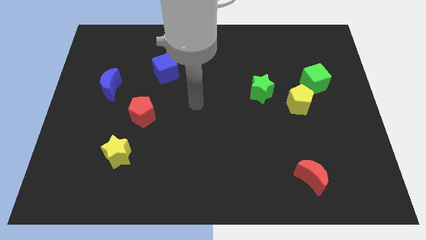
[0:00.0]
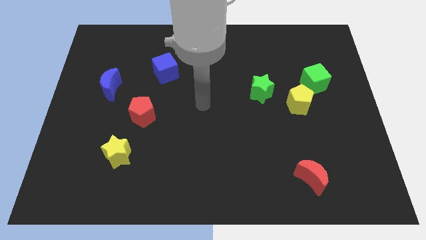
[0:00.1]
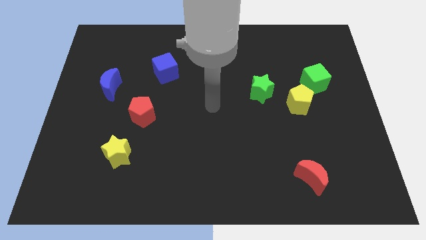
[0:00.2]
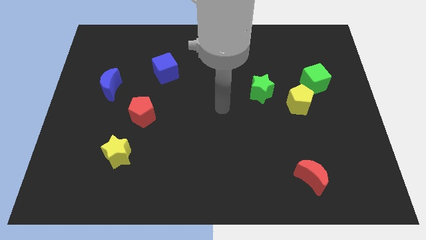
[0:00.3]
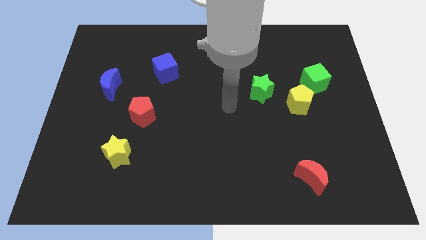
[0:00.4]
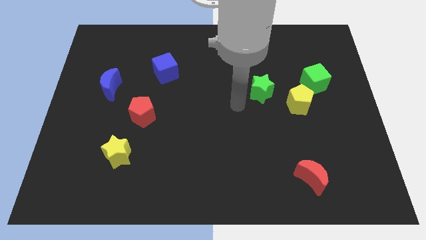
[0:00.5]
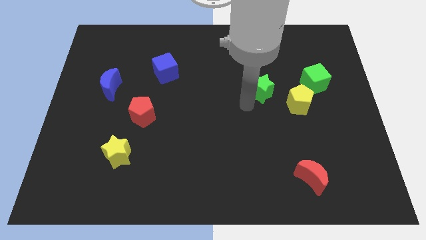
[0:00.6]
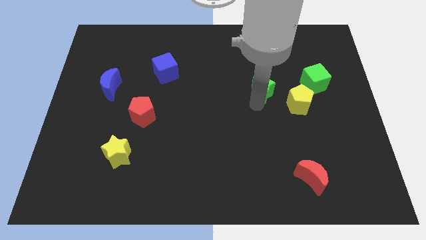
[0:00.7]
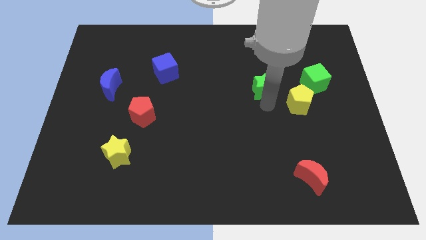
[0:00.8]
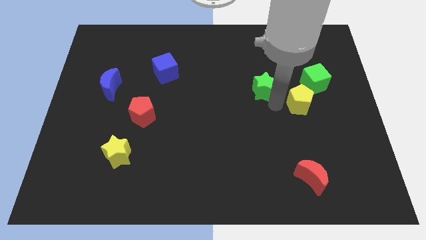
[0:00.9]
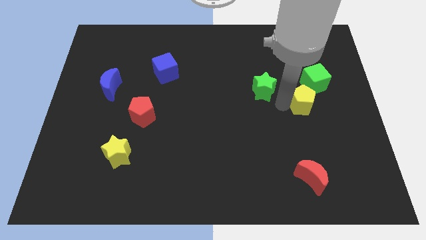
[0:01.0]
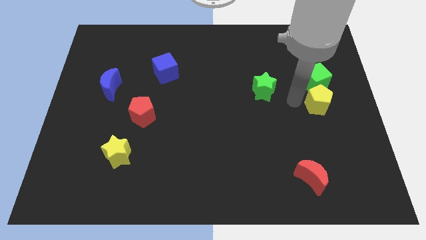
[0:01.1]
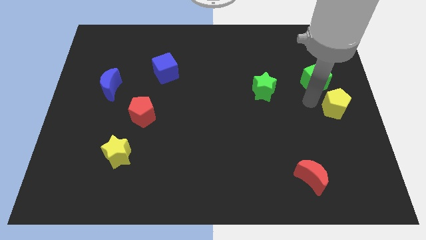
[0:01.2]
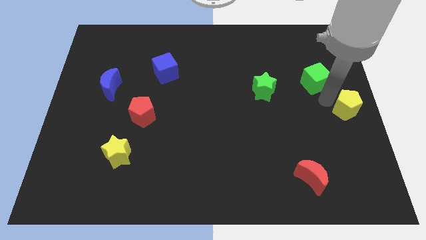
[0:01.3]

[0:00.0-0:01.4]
pull the green cube apart from the yellow pentagon

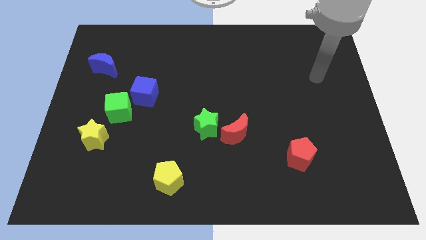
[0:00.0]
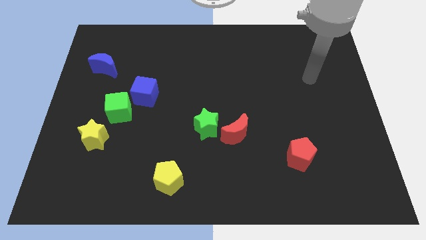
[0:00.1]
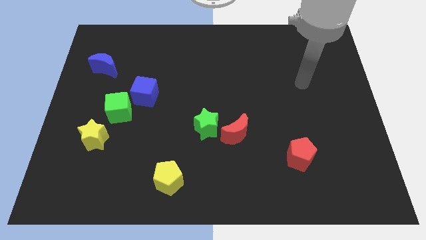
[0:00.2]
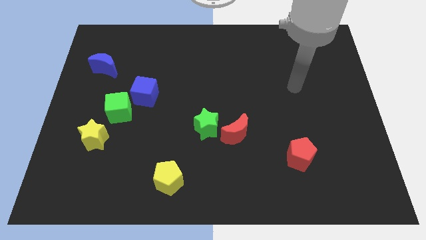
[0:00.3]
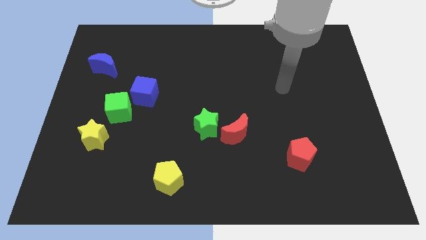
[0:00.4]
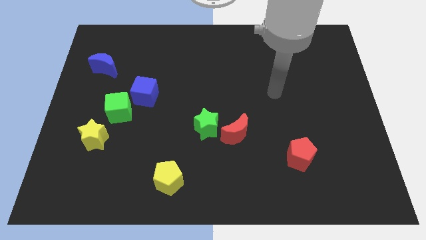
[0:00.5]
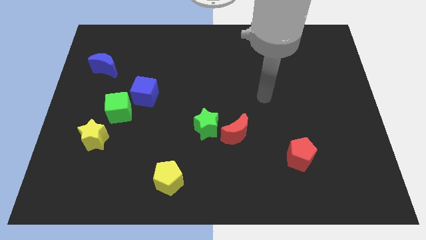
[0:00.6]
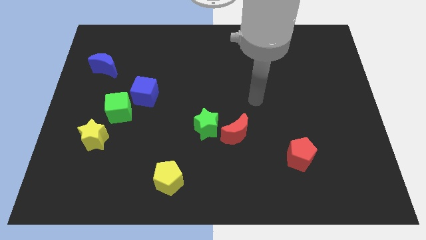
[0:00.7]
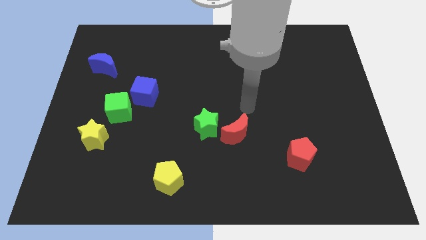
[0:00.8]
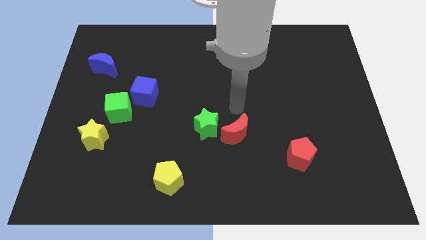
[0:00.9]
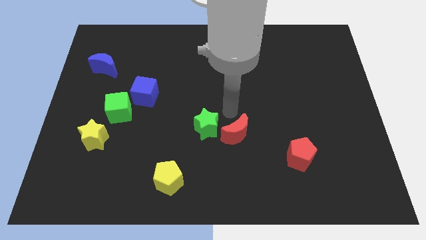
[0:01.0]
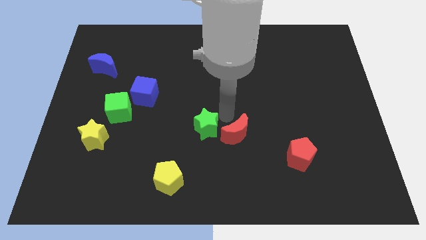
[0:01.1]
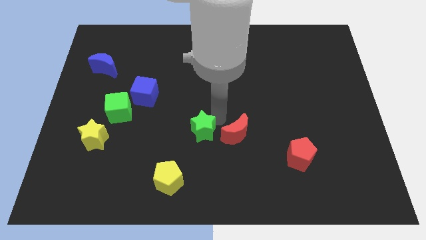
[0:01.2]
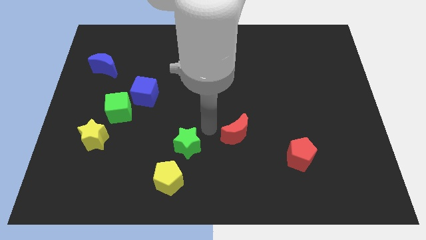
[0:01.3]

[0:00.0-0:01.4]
pull the red moon apart from the green star

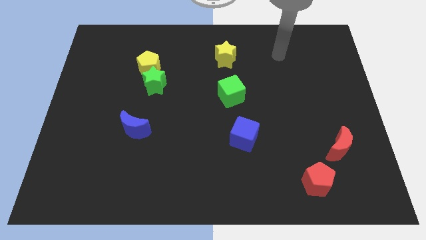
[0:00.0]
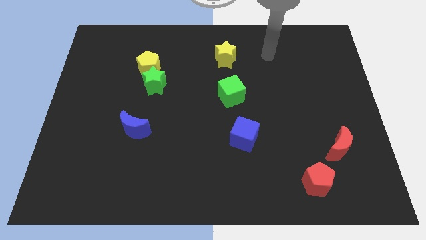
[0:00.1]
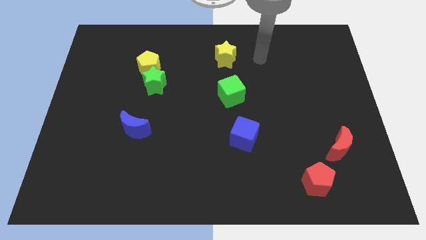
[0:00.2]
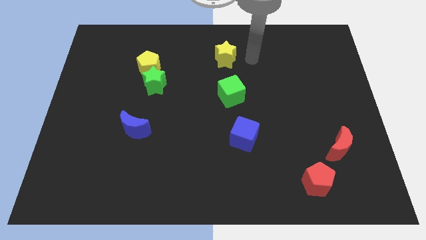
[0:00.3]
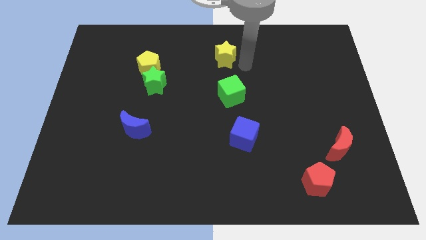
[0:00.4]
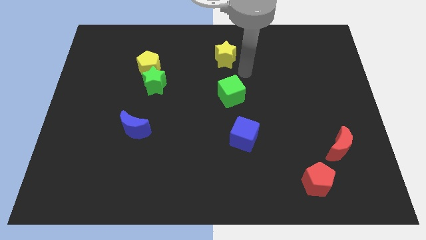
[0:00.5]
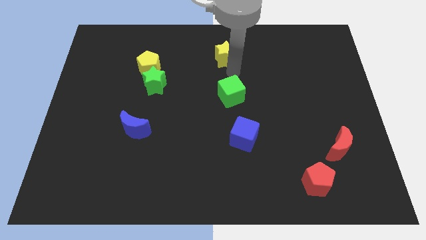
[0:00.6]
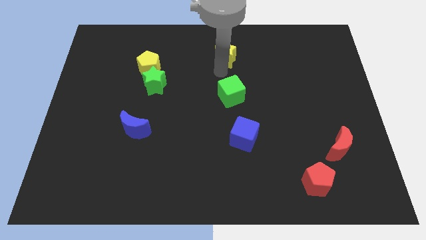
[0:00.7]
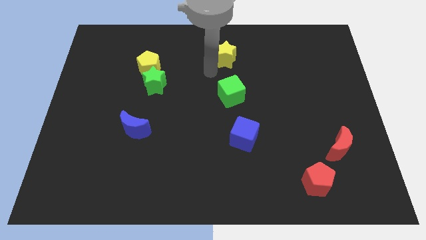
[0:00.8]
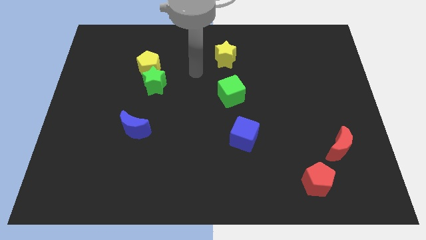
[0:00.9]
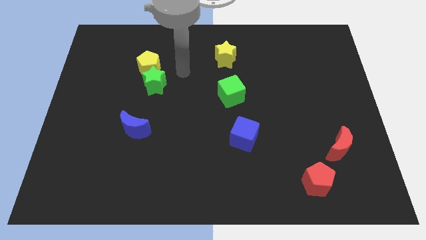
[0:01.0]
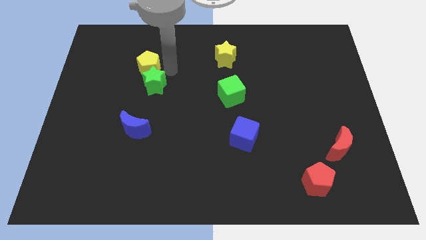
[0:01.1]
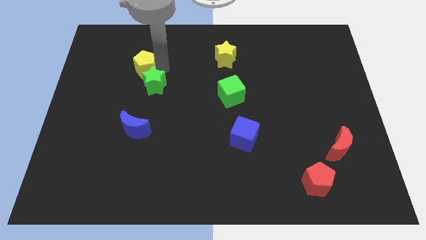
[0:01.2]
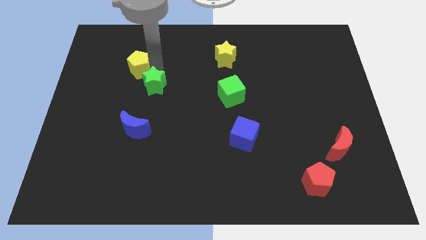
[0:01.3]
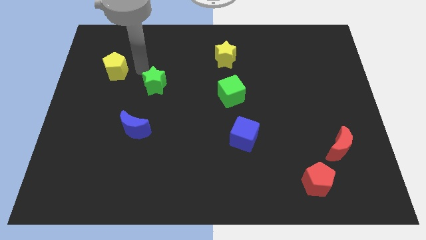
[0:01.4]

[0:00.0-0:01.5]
pull the green star apart from the yellow pentagon

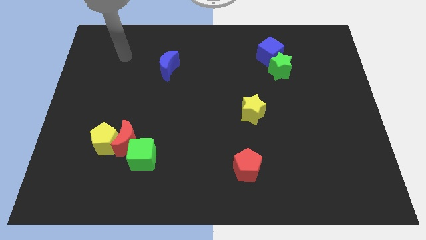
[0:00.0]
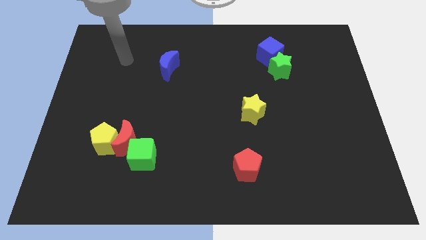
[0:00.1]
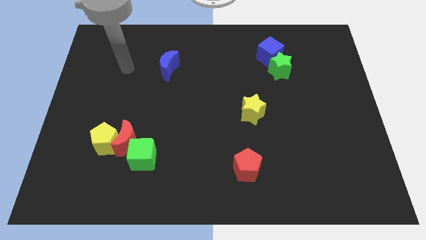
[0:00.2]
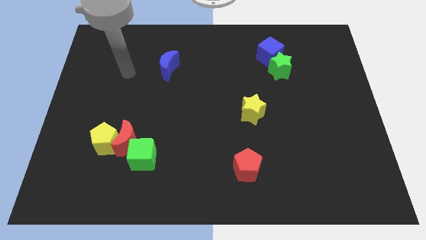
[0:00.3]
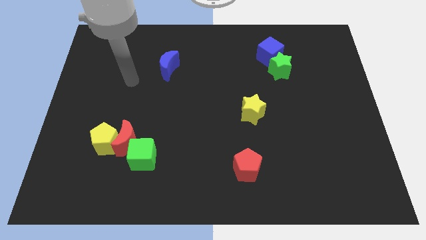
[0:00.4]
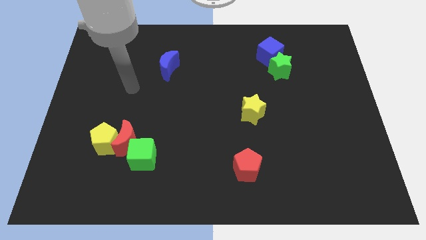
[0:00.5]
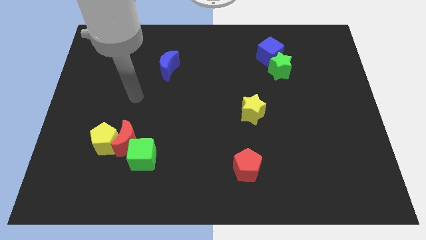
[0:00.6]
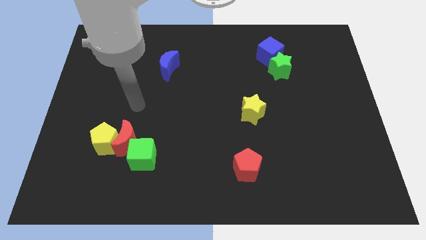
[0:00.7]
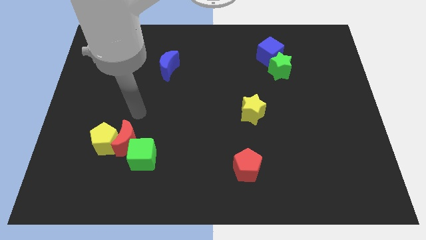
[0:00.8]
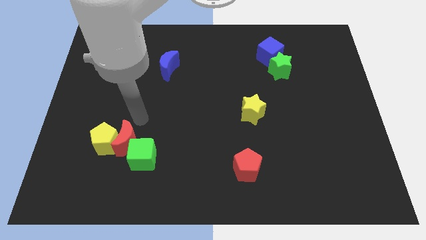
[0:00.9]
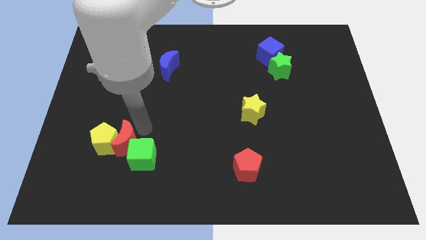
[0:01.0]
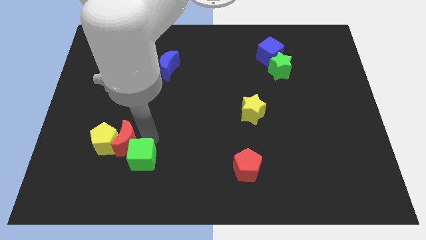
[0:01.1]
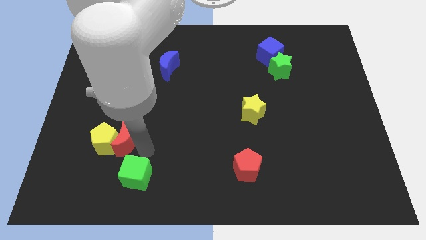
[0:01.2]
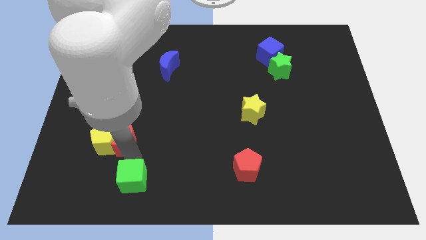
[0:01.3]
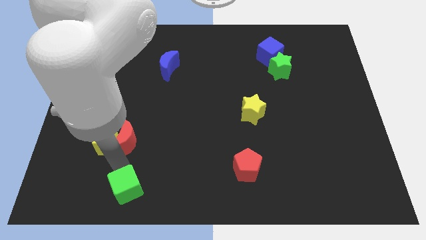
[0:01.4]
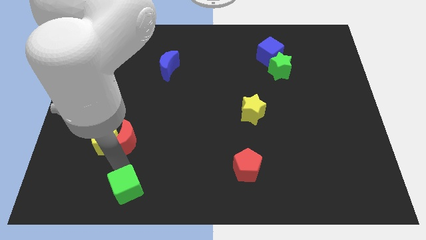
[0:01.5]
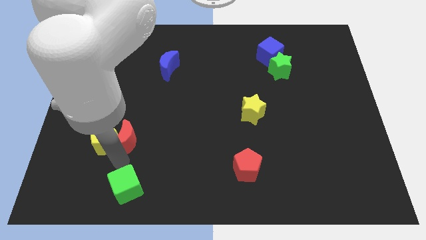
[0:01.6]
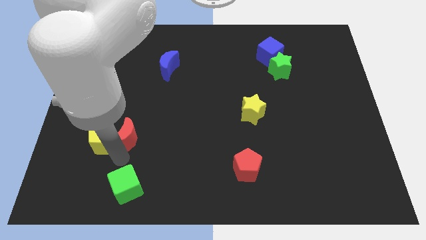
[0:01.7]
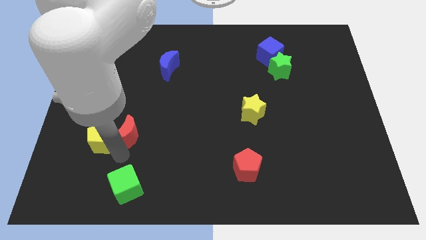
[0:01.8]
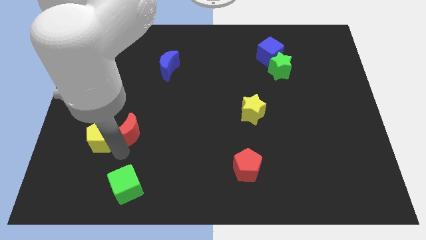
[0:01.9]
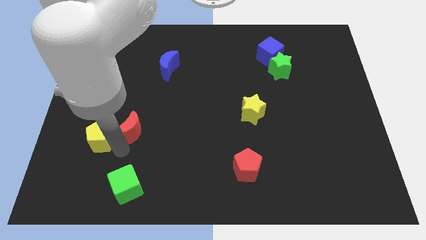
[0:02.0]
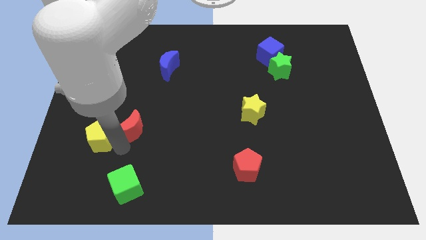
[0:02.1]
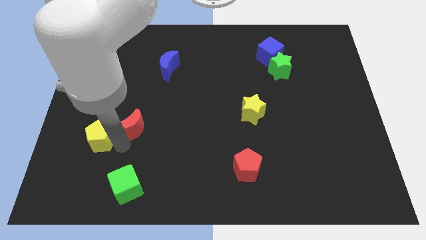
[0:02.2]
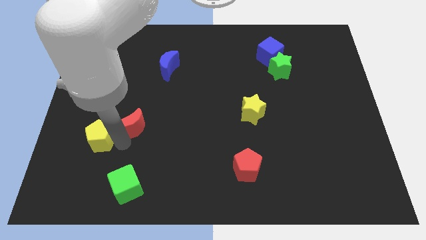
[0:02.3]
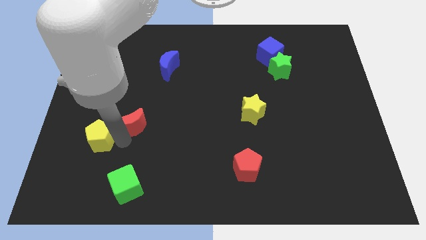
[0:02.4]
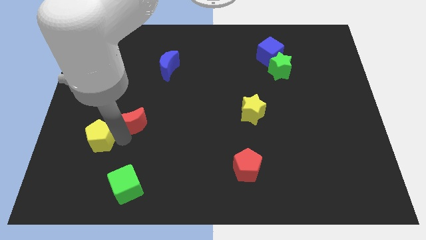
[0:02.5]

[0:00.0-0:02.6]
pull the red moon apart from the yellow pentagon and green cube

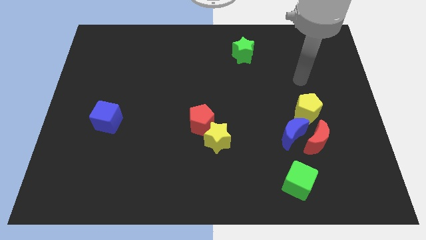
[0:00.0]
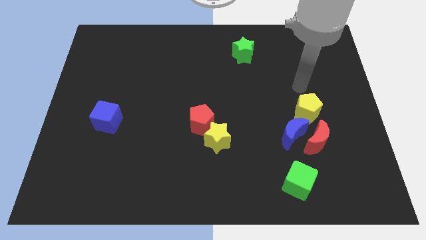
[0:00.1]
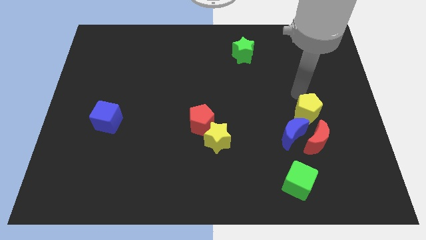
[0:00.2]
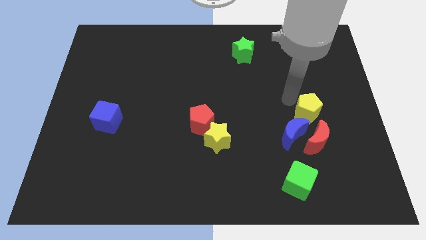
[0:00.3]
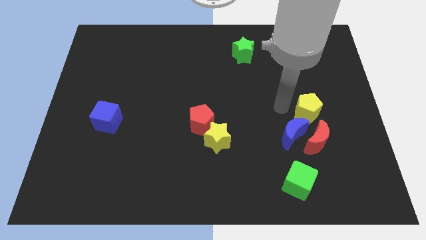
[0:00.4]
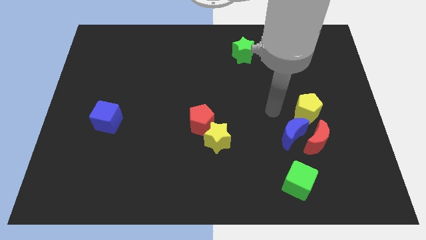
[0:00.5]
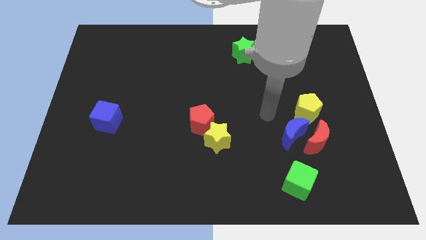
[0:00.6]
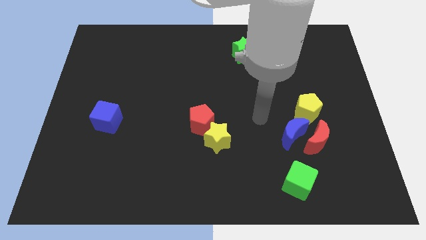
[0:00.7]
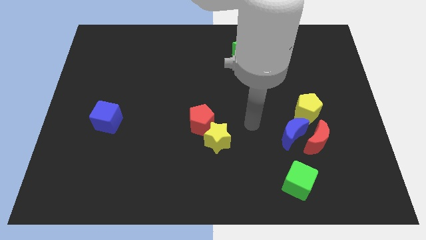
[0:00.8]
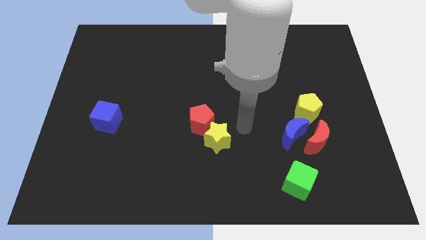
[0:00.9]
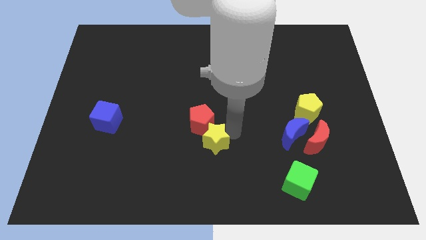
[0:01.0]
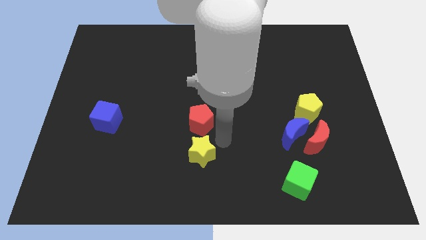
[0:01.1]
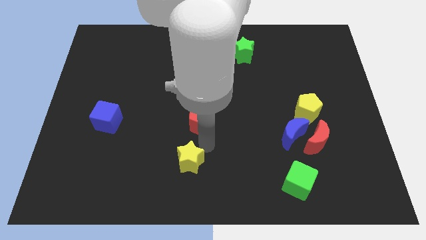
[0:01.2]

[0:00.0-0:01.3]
move the red pentagon away from the yellow star

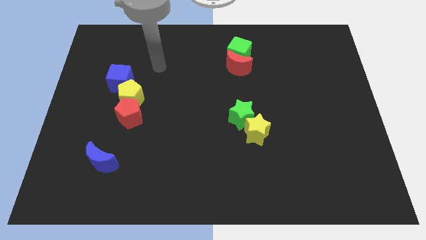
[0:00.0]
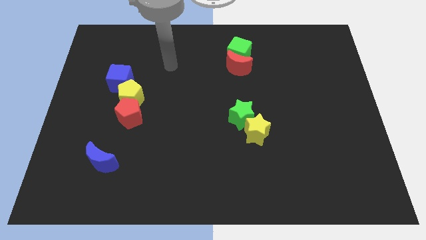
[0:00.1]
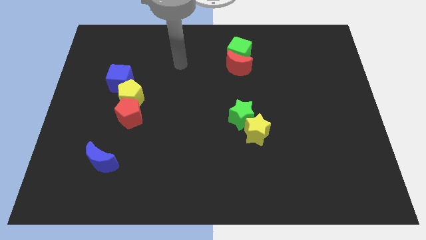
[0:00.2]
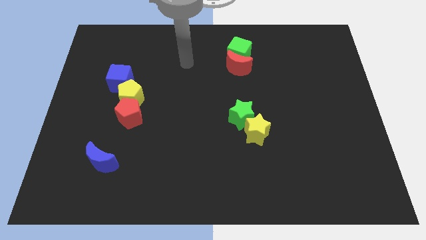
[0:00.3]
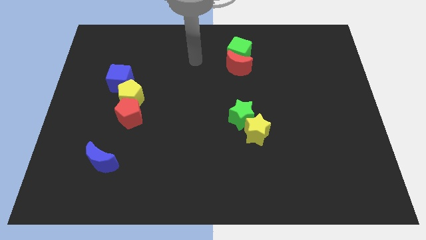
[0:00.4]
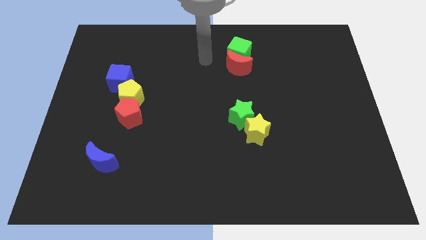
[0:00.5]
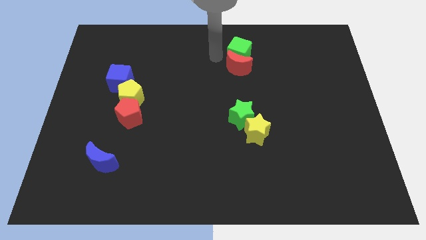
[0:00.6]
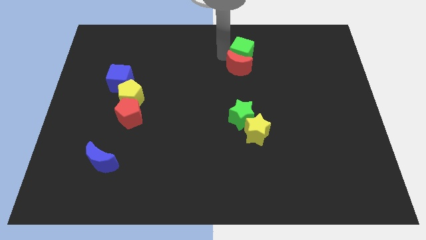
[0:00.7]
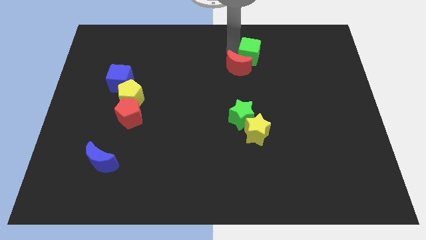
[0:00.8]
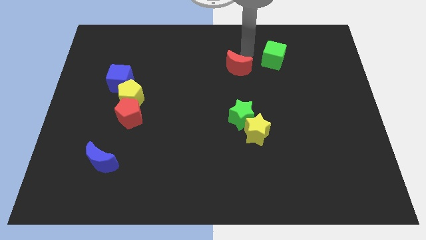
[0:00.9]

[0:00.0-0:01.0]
separate the red moon from the green cube
